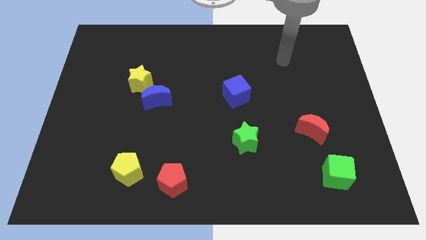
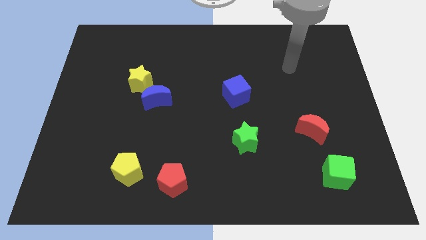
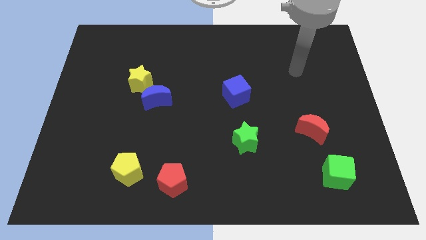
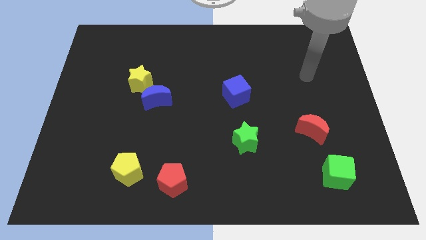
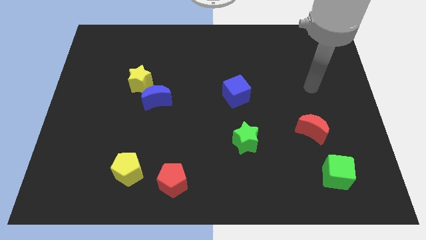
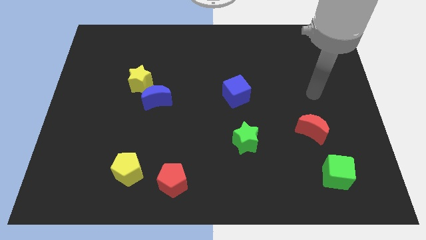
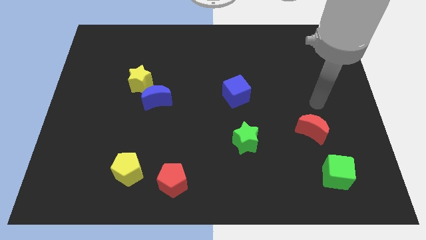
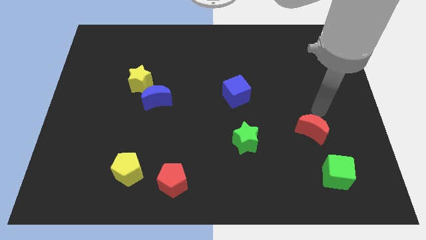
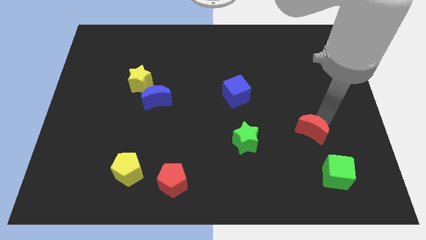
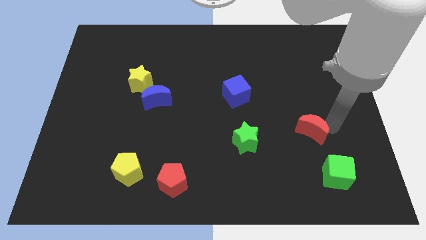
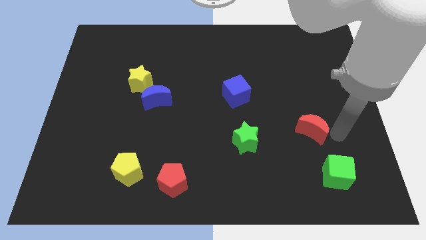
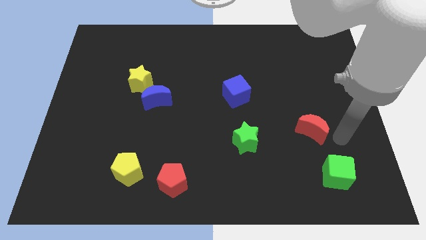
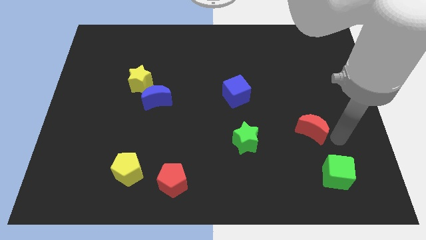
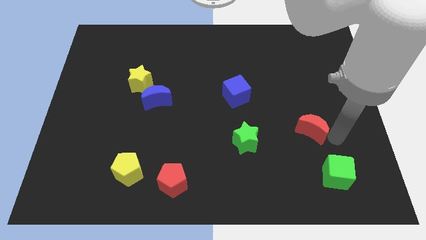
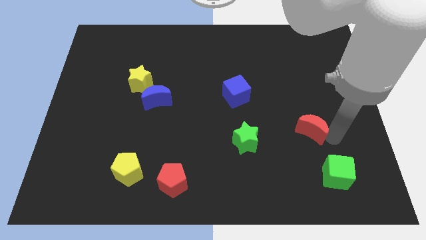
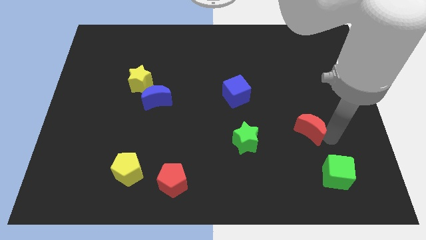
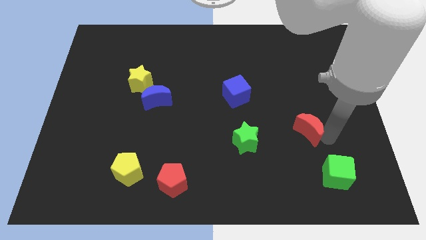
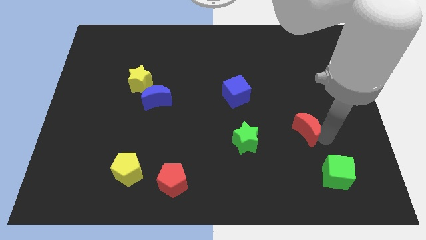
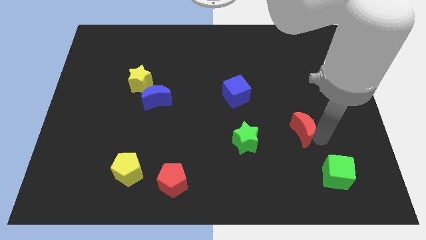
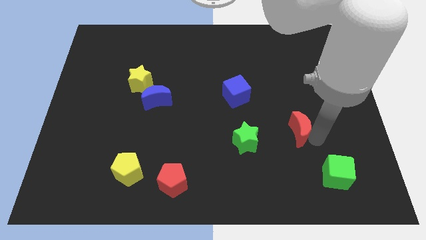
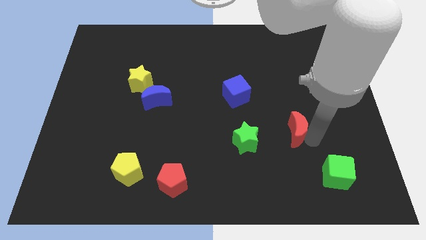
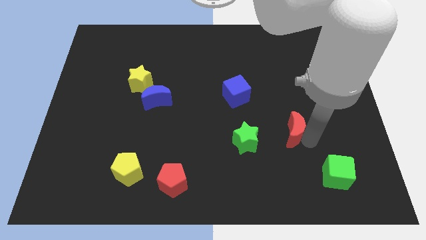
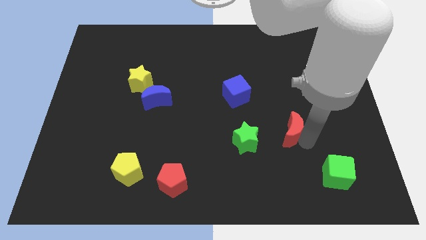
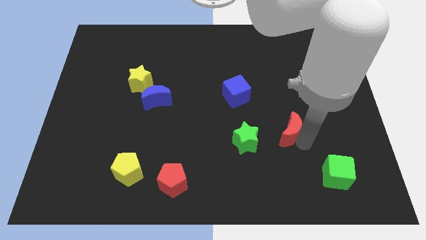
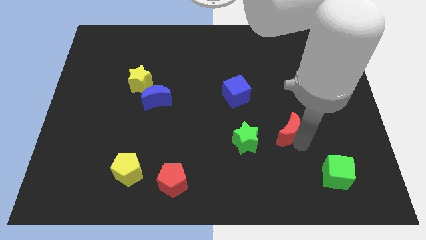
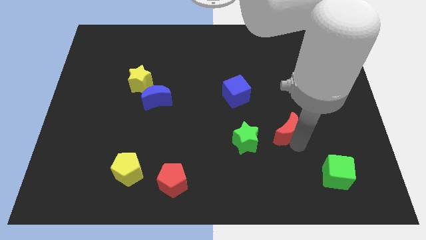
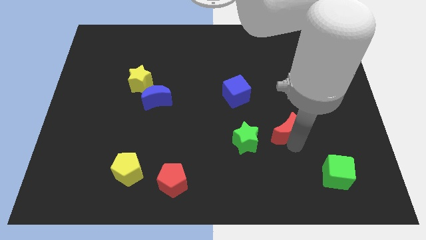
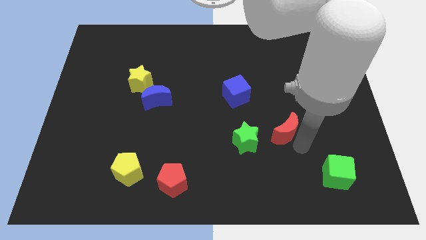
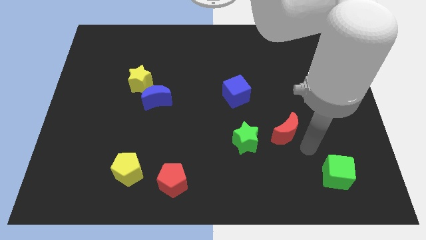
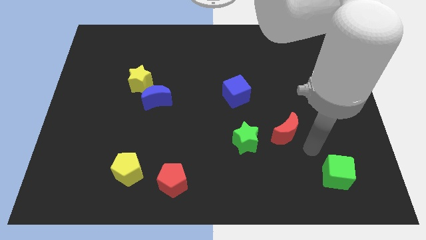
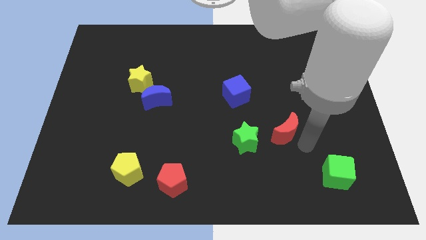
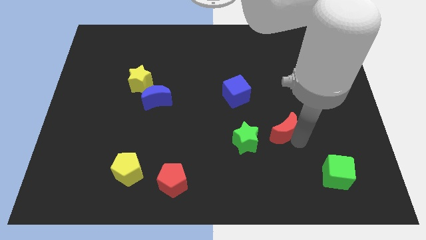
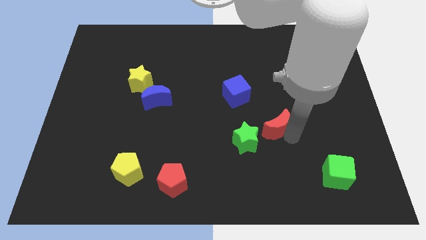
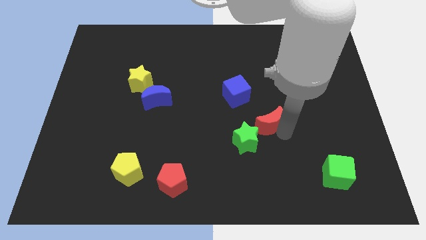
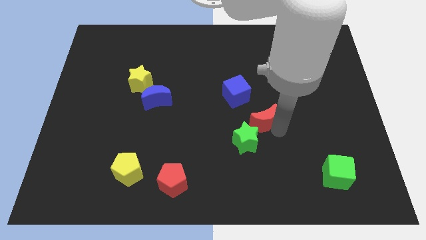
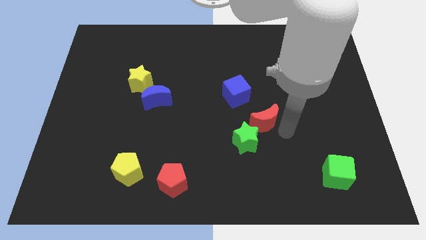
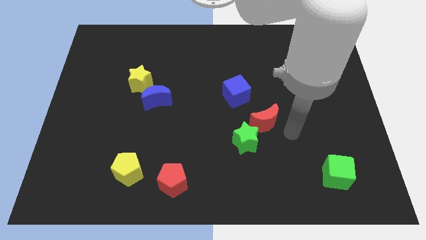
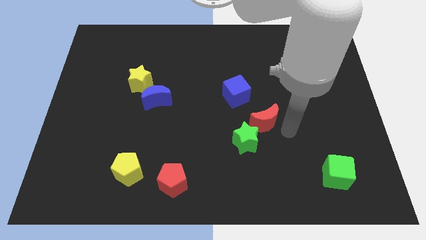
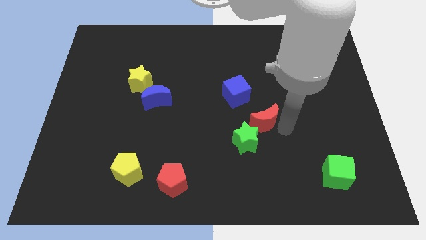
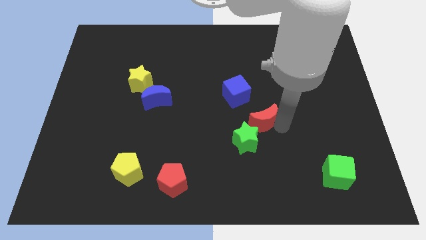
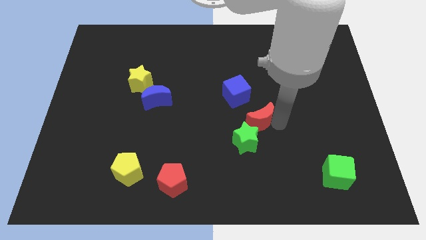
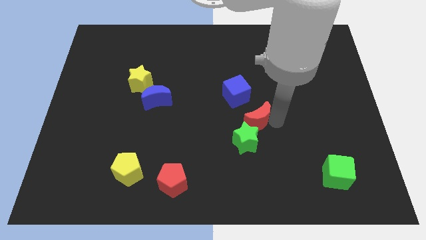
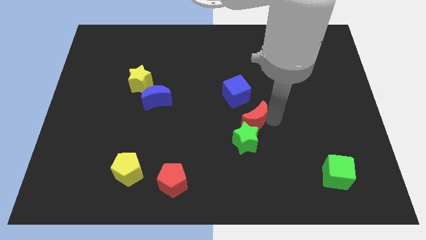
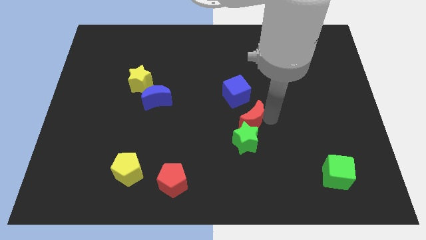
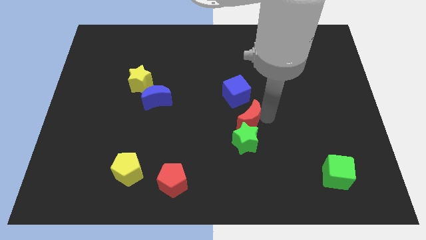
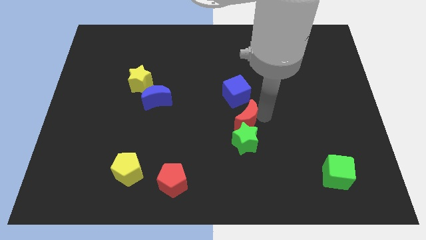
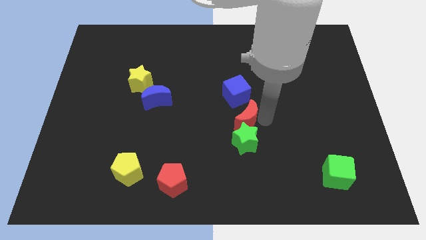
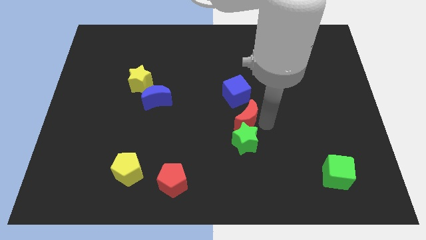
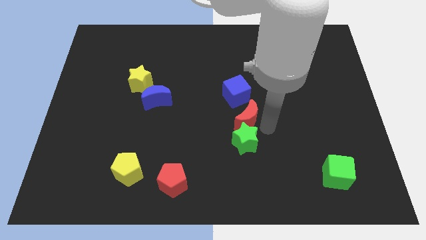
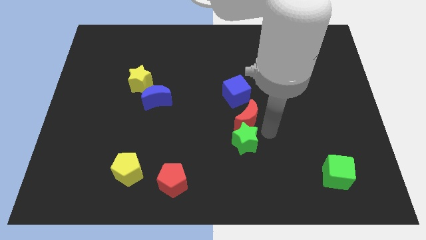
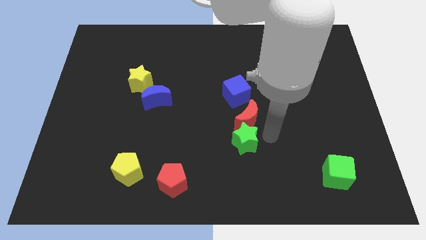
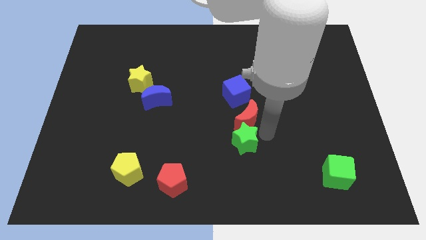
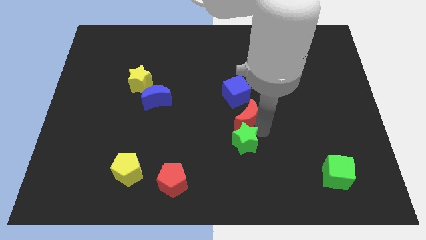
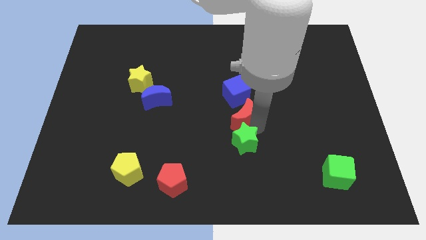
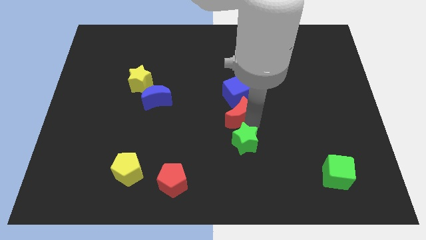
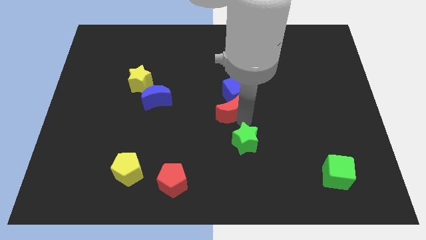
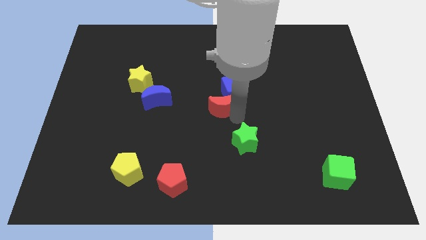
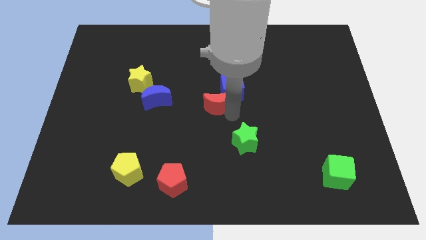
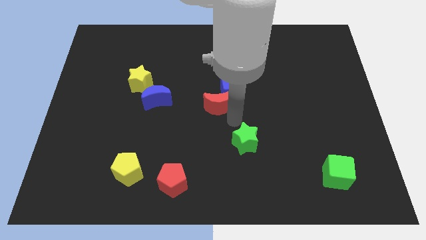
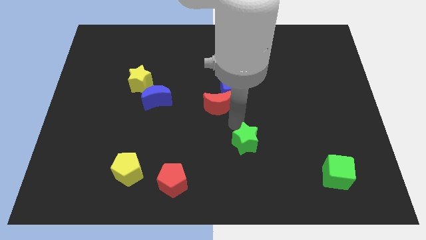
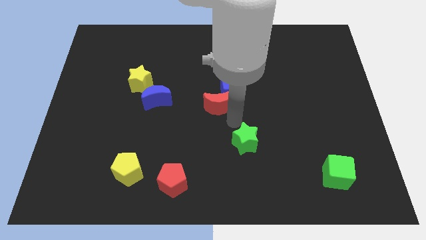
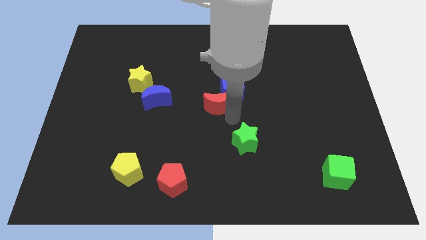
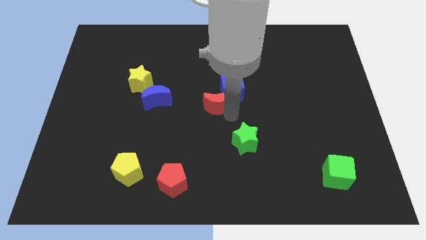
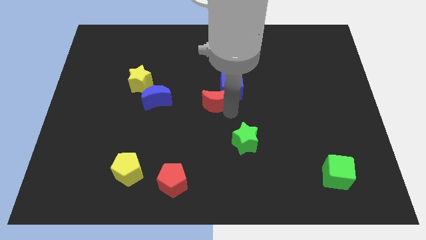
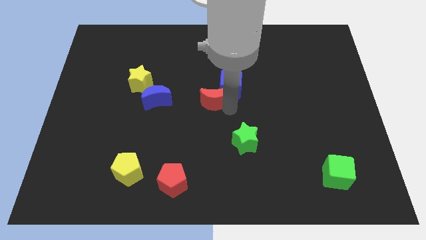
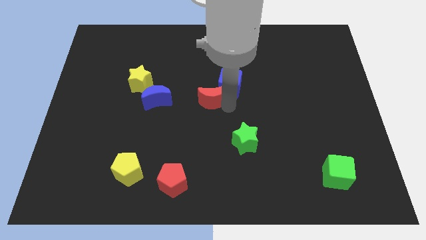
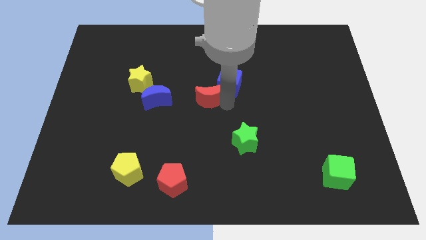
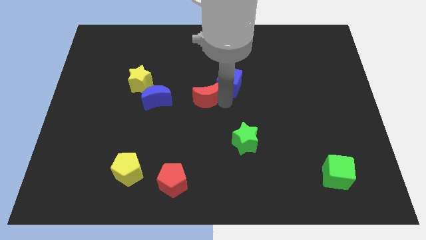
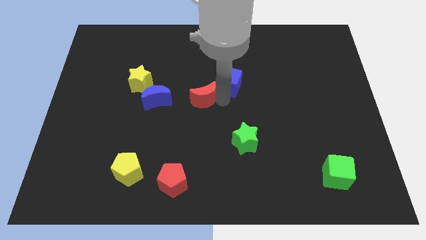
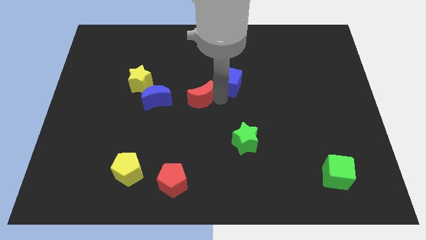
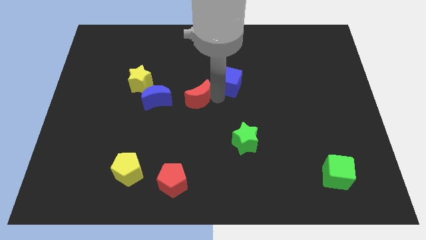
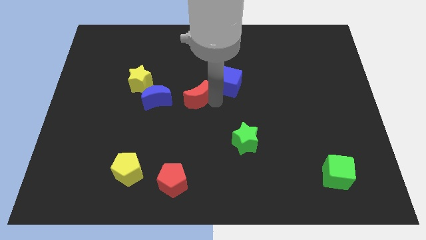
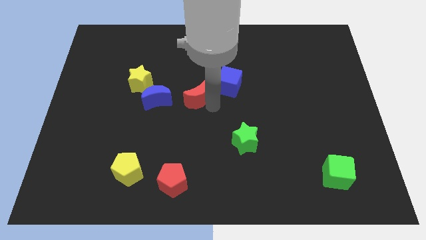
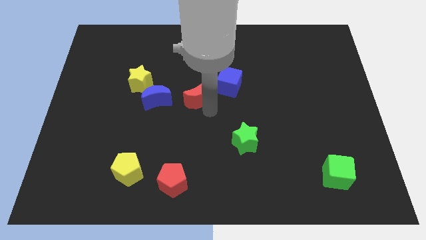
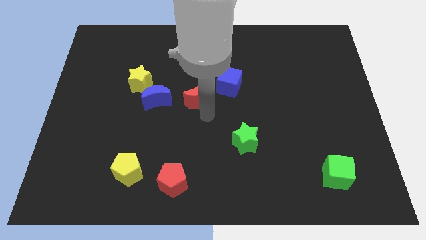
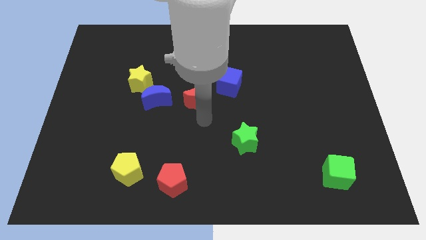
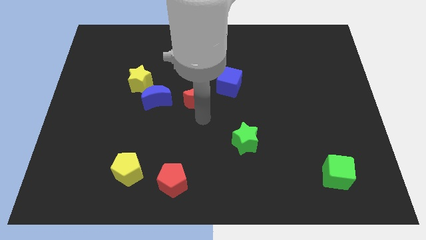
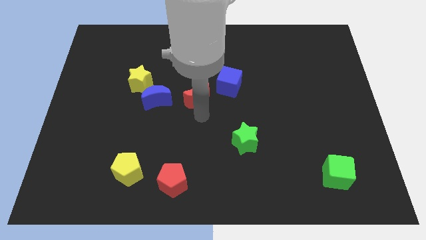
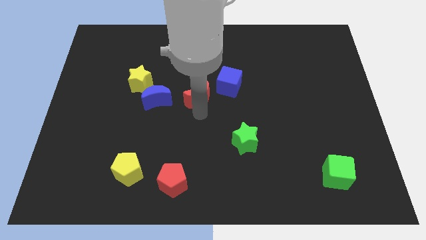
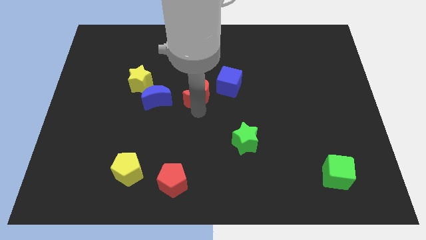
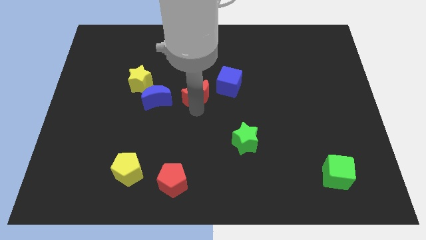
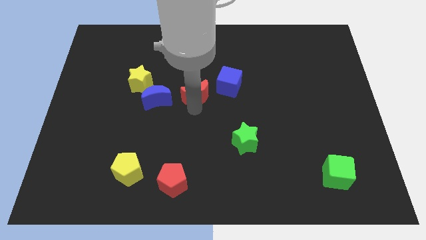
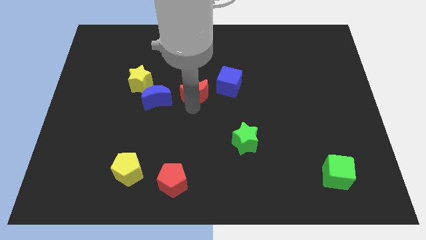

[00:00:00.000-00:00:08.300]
move the red moon right of the yellow star
